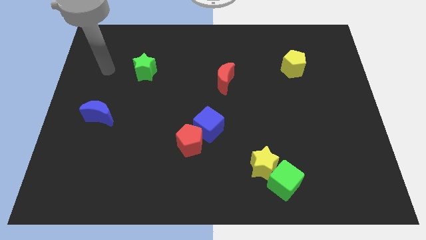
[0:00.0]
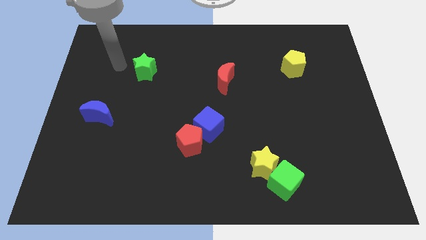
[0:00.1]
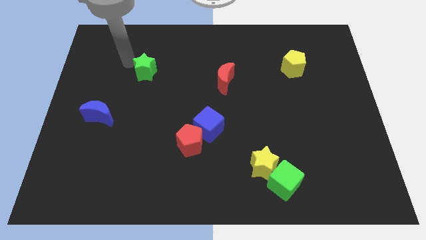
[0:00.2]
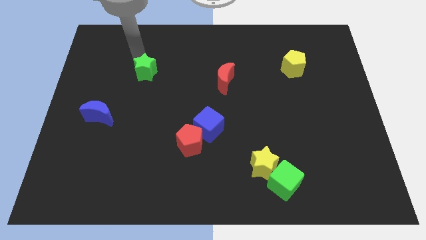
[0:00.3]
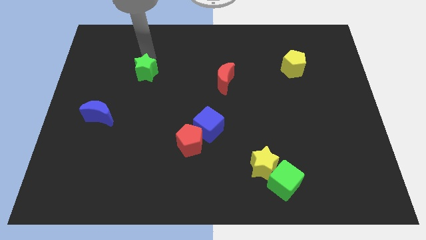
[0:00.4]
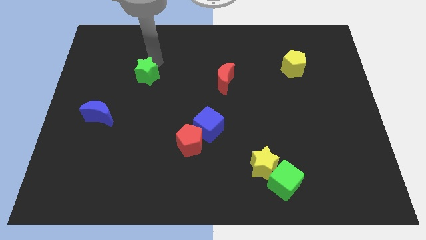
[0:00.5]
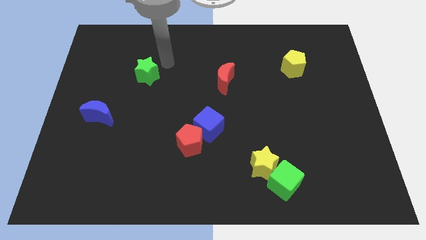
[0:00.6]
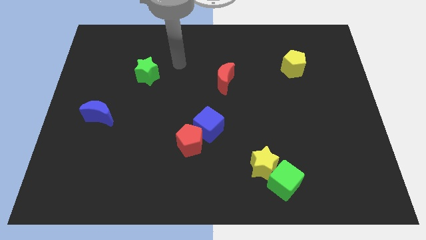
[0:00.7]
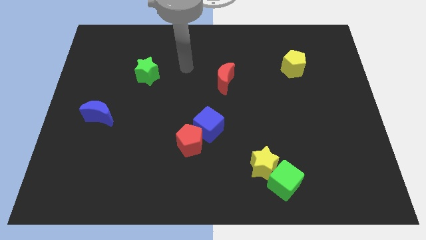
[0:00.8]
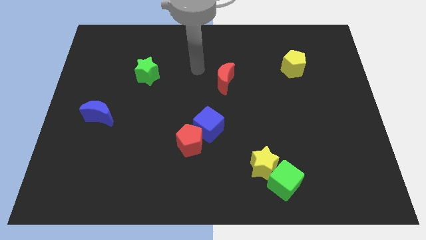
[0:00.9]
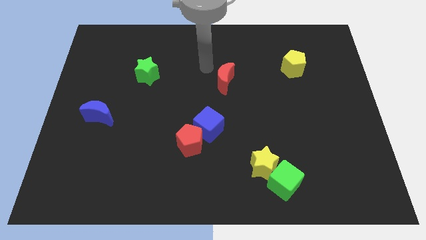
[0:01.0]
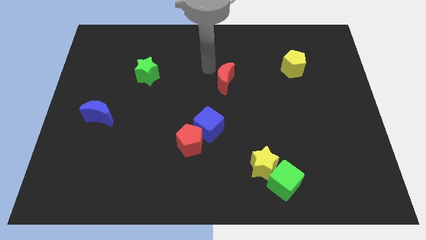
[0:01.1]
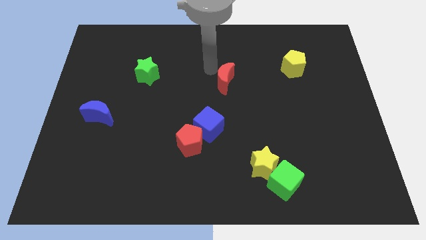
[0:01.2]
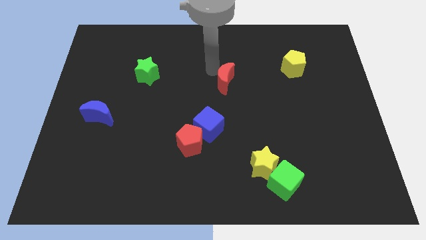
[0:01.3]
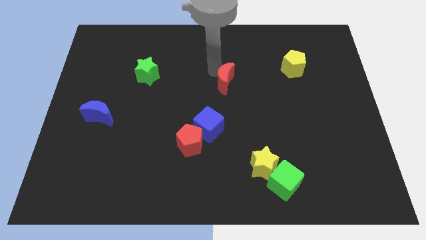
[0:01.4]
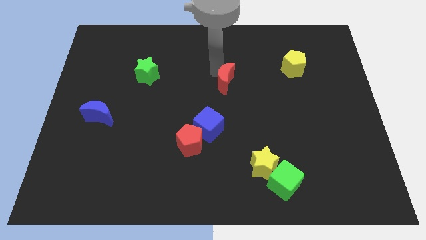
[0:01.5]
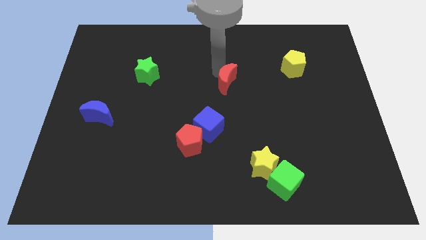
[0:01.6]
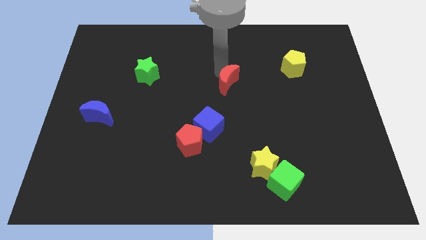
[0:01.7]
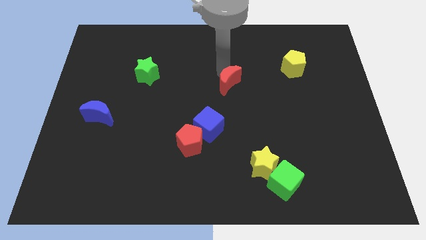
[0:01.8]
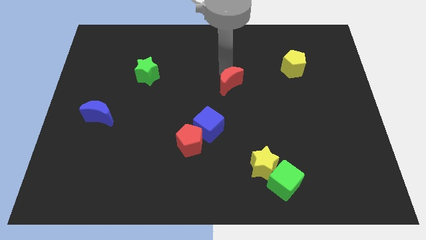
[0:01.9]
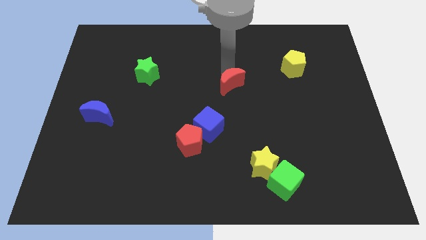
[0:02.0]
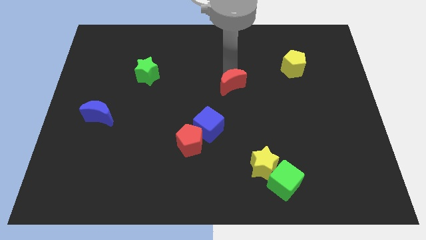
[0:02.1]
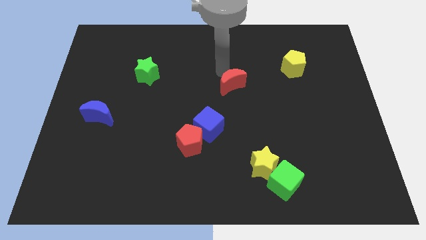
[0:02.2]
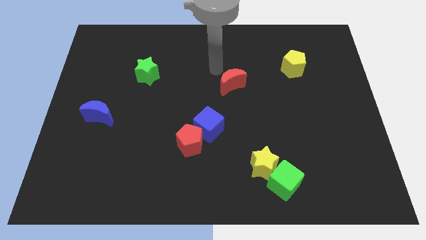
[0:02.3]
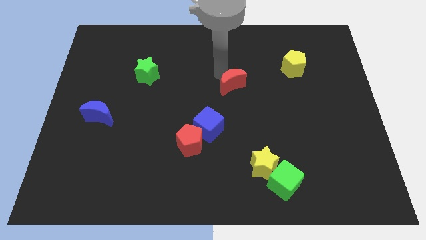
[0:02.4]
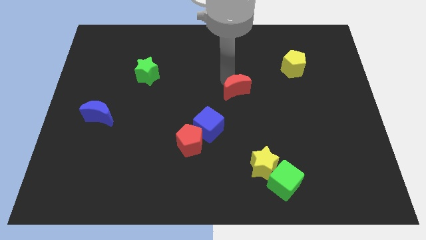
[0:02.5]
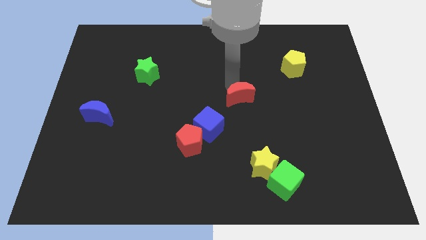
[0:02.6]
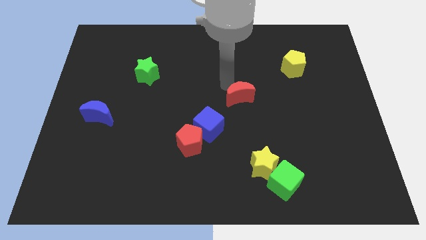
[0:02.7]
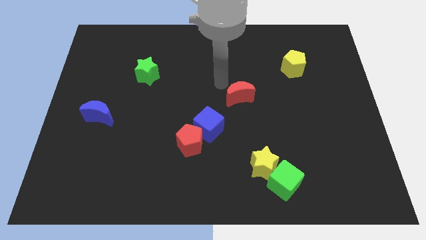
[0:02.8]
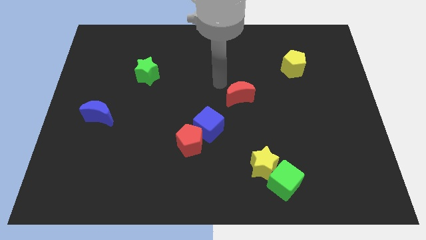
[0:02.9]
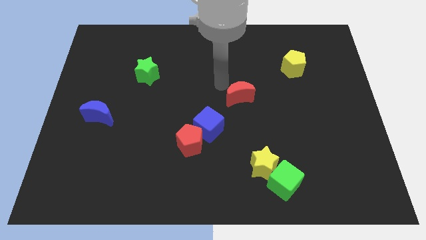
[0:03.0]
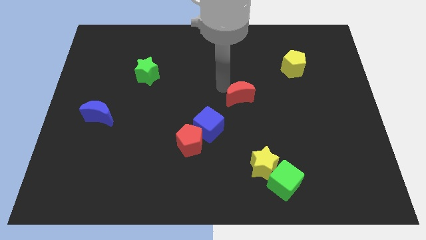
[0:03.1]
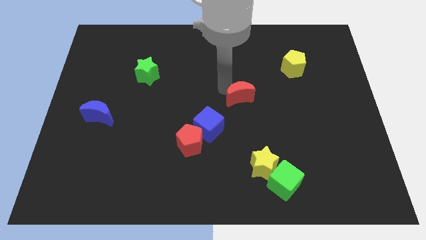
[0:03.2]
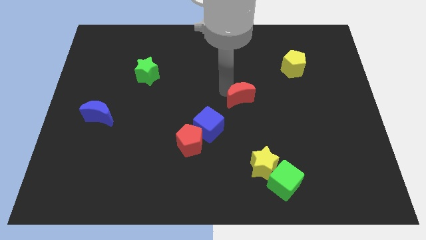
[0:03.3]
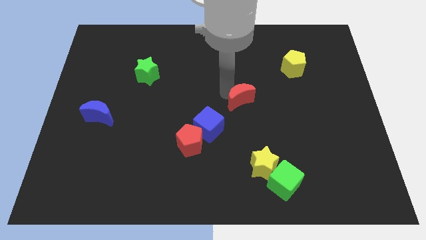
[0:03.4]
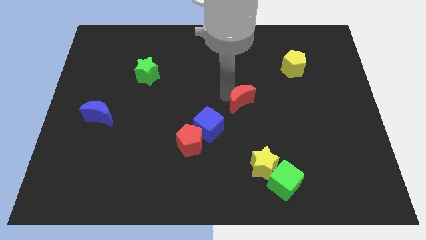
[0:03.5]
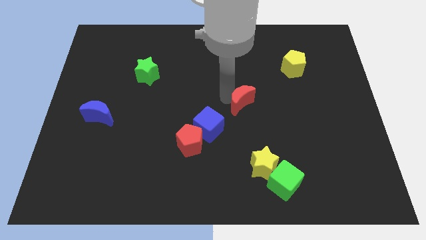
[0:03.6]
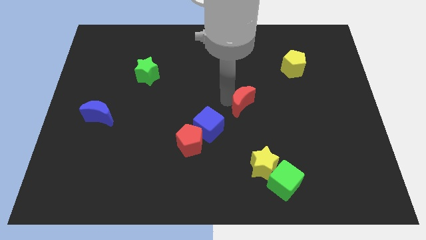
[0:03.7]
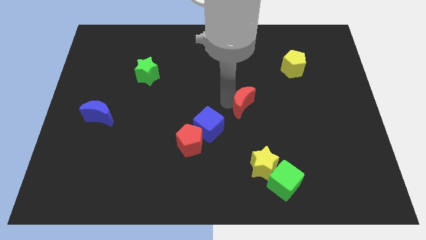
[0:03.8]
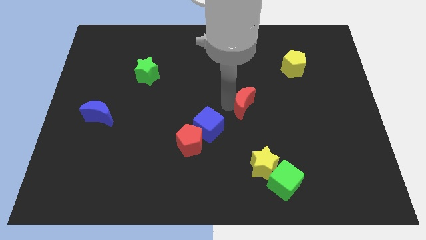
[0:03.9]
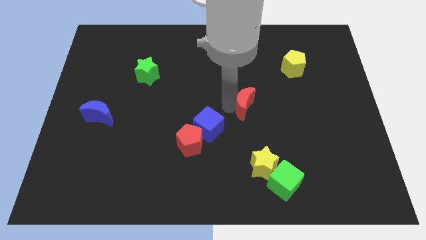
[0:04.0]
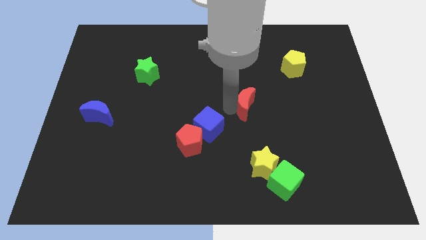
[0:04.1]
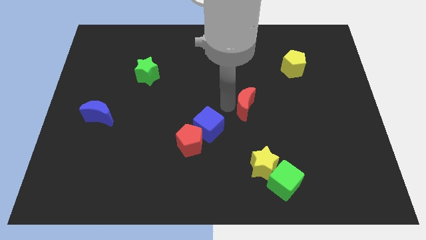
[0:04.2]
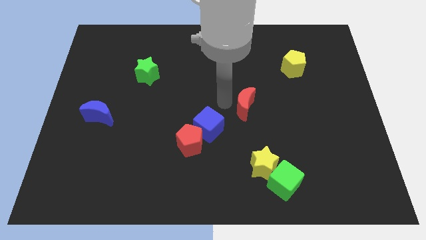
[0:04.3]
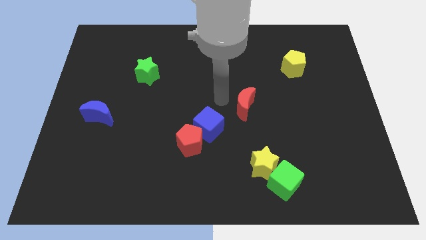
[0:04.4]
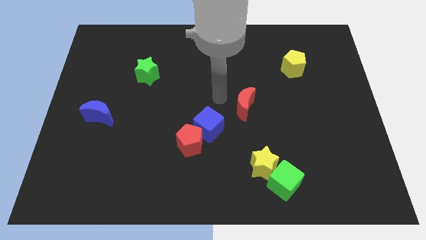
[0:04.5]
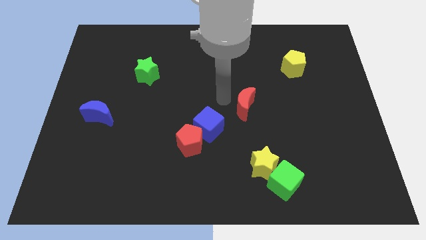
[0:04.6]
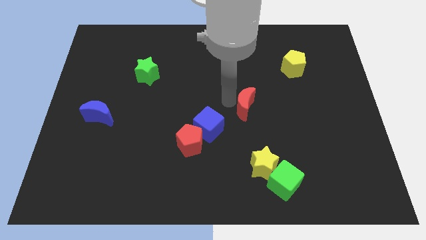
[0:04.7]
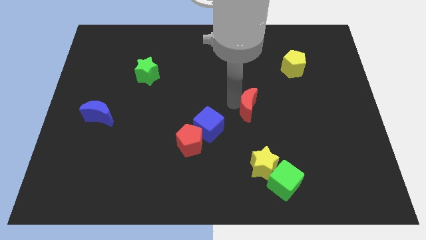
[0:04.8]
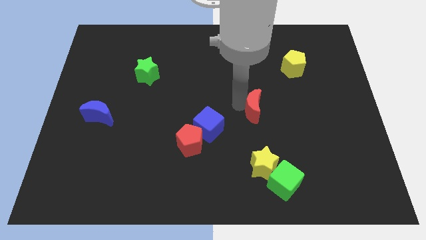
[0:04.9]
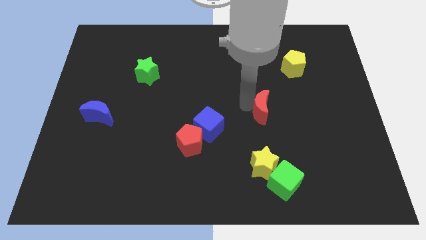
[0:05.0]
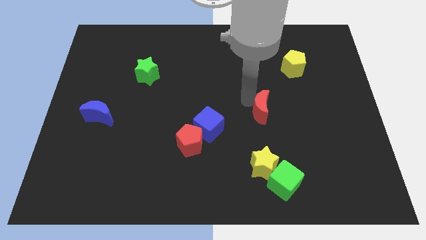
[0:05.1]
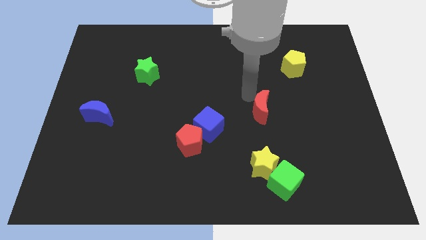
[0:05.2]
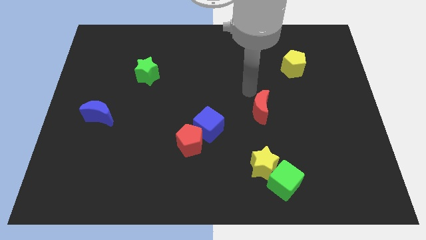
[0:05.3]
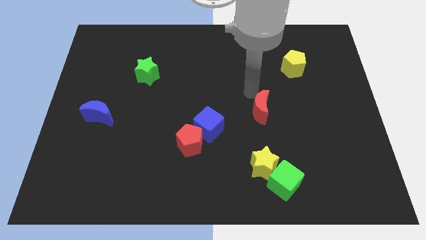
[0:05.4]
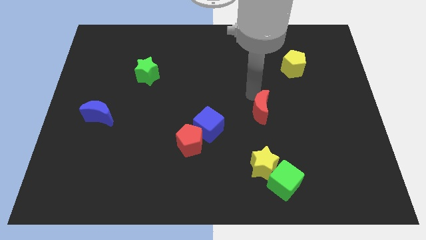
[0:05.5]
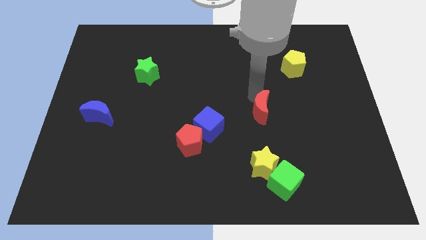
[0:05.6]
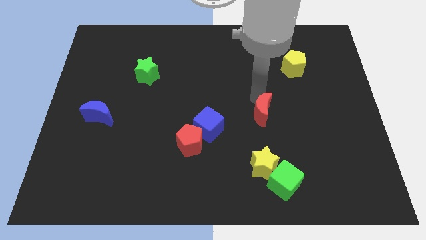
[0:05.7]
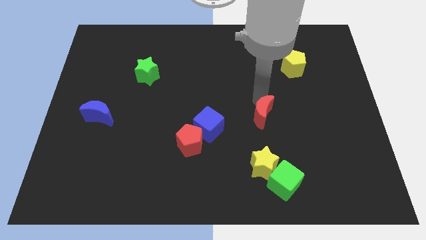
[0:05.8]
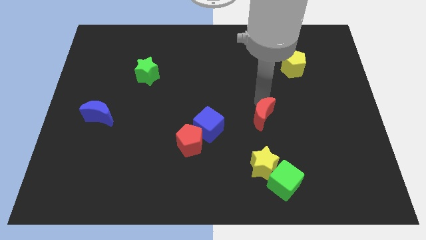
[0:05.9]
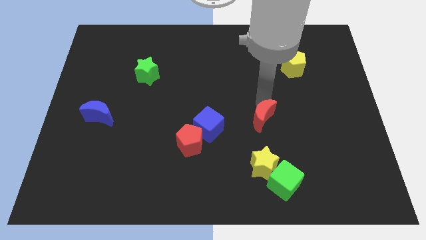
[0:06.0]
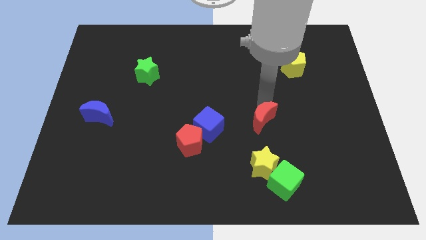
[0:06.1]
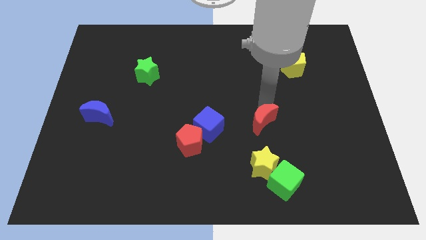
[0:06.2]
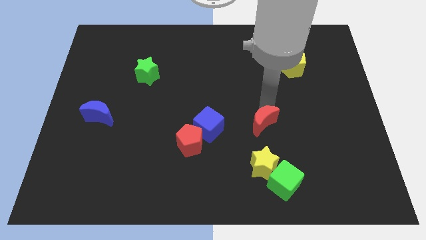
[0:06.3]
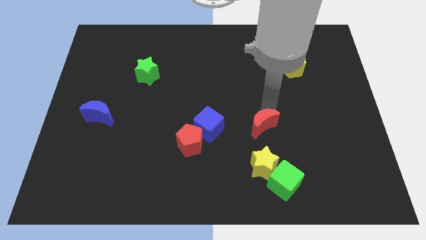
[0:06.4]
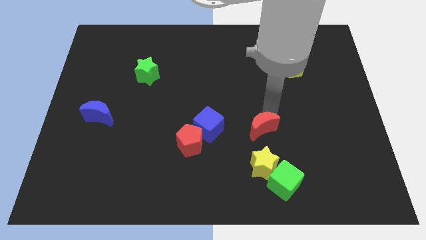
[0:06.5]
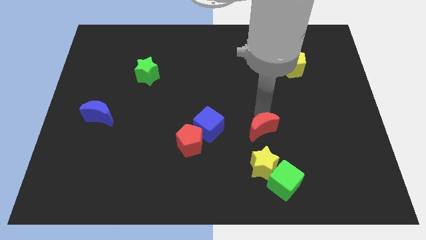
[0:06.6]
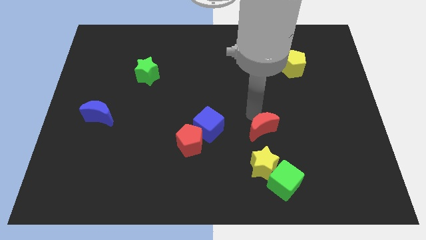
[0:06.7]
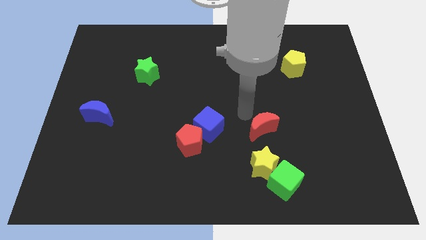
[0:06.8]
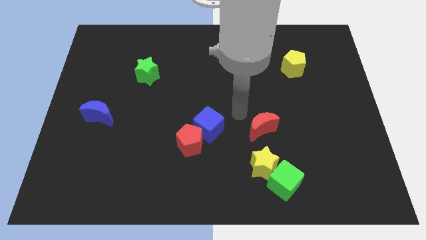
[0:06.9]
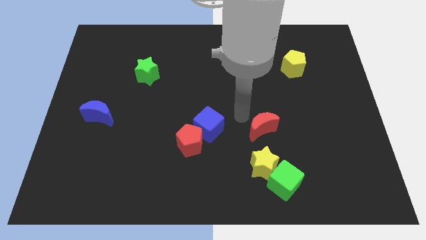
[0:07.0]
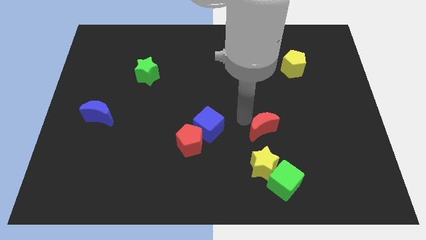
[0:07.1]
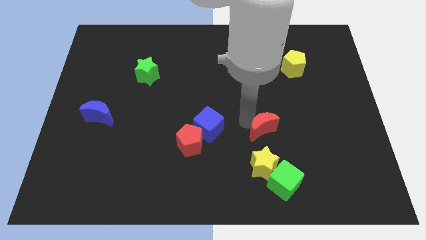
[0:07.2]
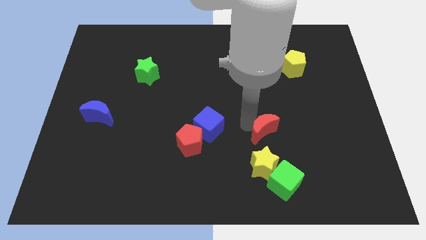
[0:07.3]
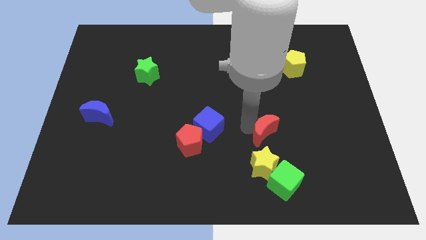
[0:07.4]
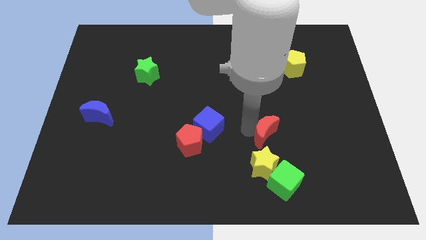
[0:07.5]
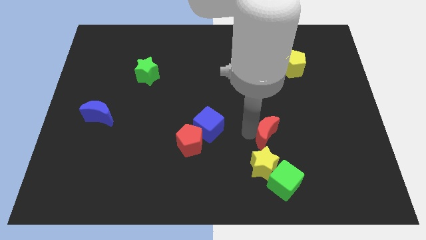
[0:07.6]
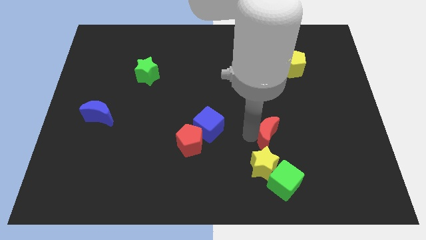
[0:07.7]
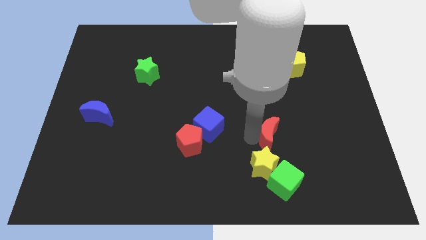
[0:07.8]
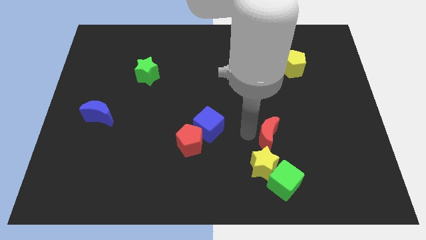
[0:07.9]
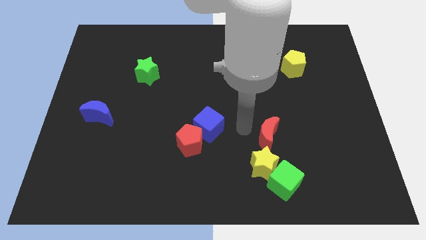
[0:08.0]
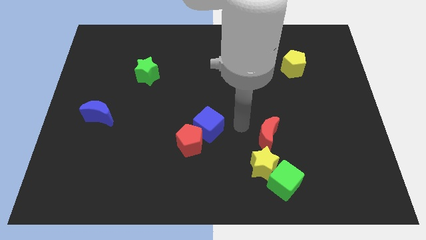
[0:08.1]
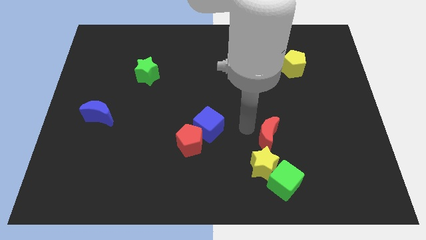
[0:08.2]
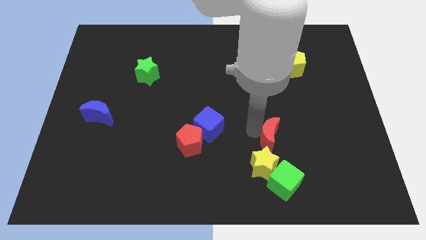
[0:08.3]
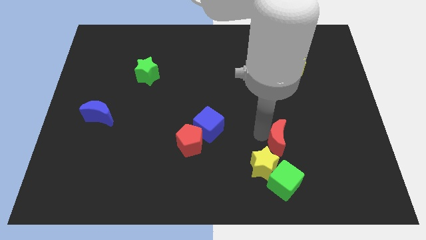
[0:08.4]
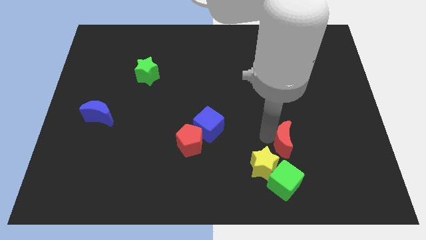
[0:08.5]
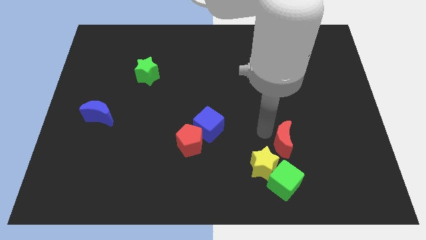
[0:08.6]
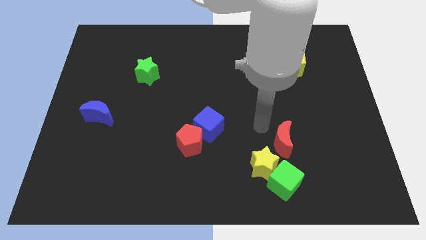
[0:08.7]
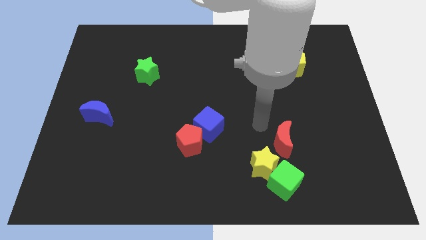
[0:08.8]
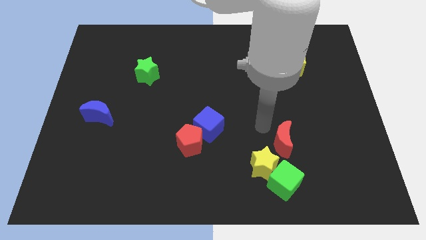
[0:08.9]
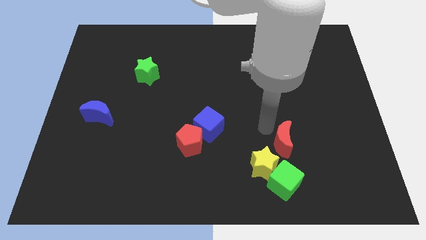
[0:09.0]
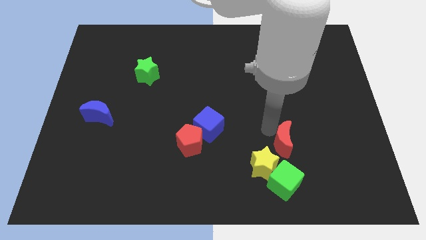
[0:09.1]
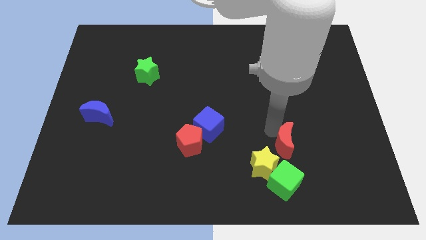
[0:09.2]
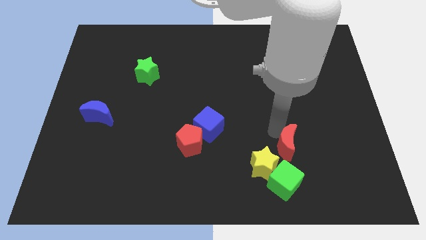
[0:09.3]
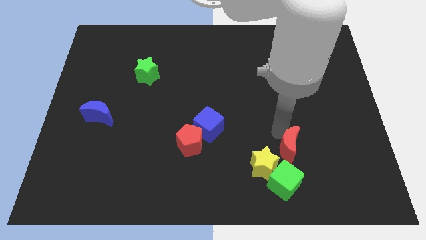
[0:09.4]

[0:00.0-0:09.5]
slide the red moon diagonally up and to the right of the green cube
